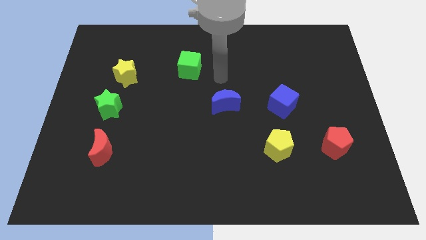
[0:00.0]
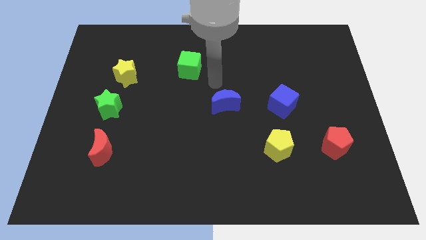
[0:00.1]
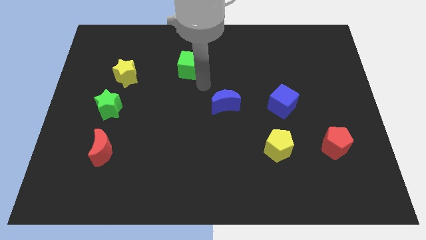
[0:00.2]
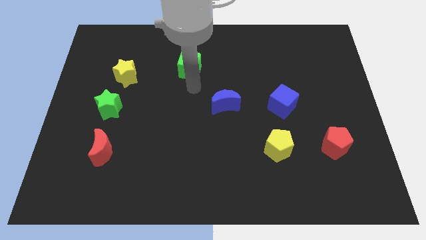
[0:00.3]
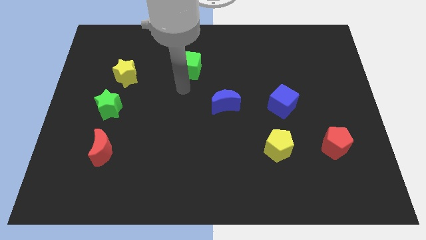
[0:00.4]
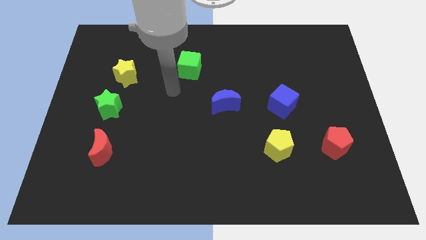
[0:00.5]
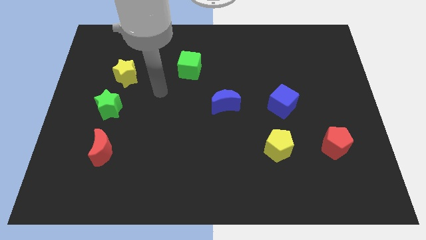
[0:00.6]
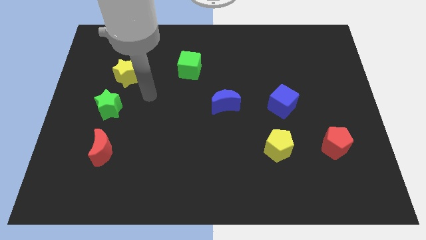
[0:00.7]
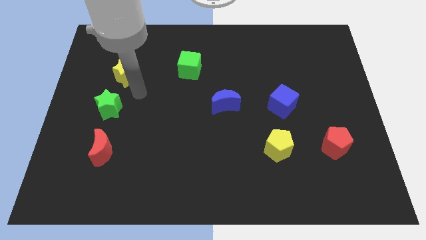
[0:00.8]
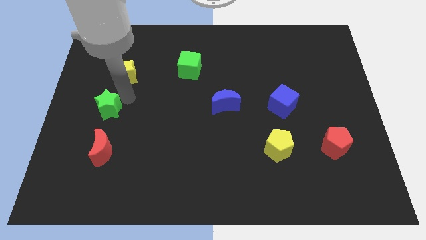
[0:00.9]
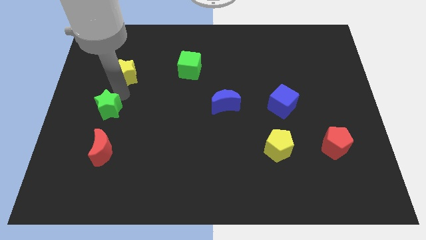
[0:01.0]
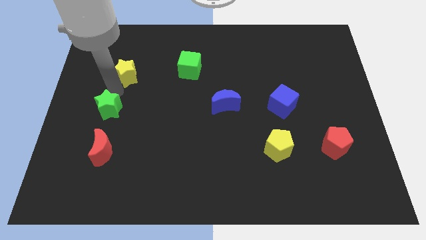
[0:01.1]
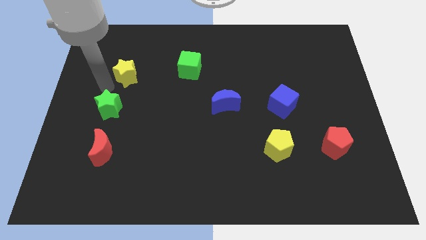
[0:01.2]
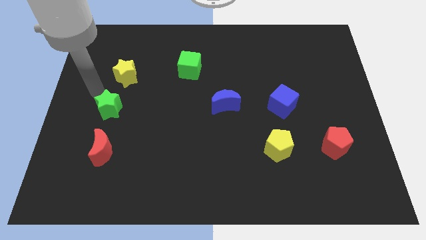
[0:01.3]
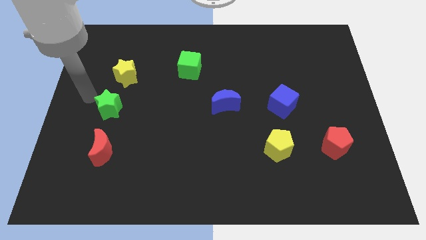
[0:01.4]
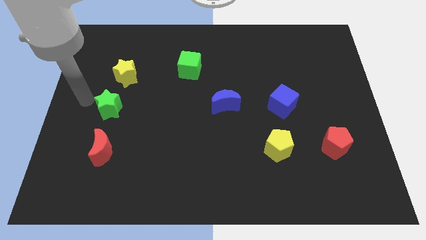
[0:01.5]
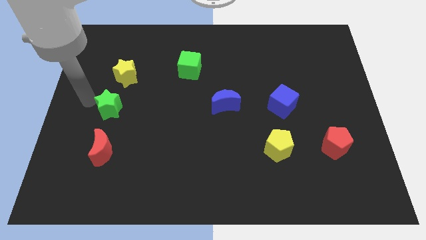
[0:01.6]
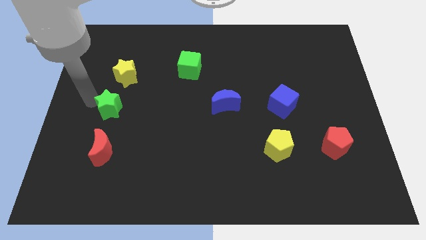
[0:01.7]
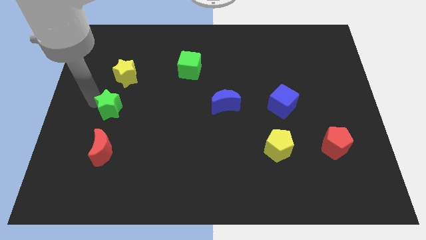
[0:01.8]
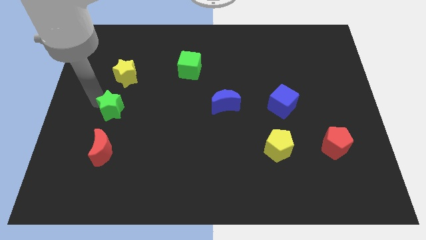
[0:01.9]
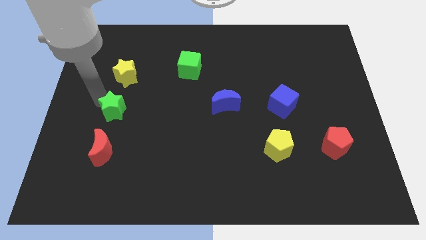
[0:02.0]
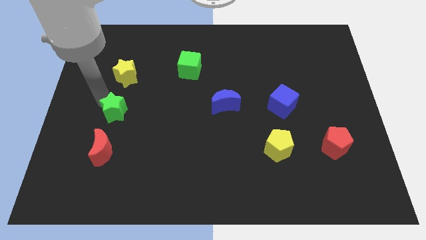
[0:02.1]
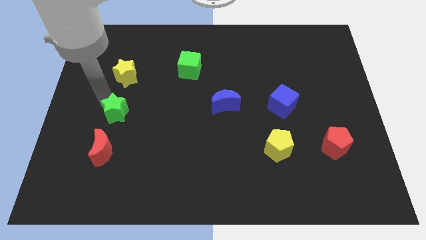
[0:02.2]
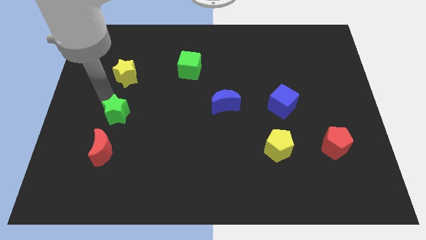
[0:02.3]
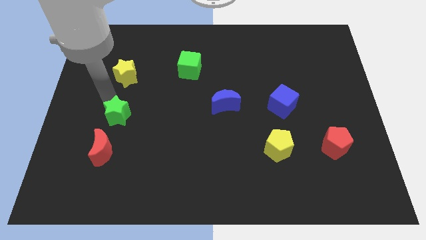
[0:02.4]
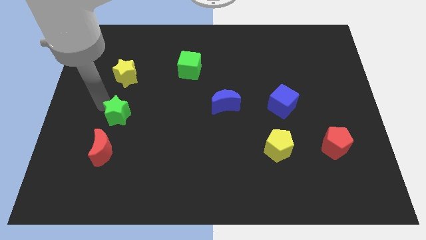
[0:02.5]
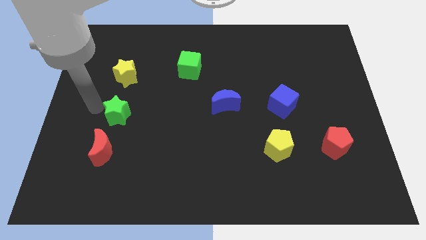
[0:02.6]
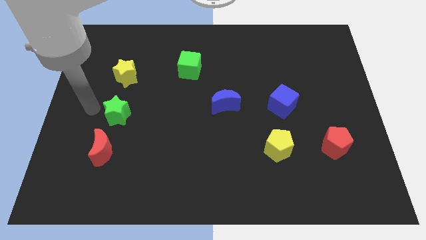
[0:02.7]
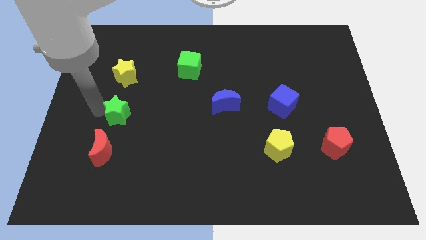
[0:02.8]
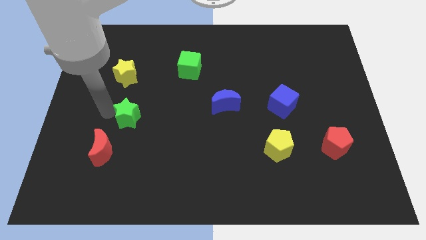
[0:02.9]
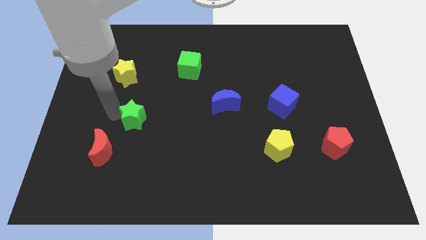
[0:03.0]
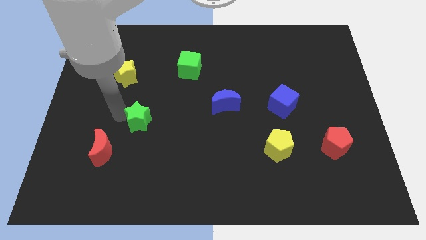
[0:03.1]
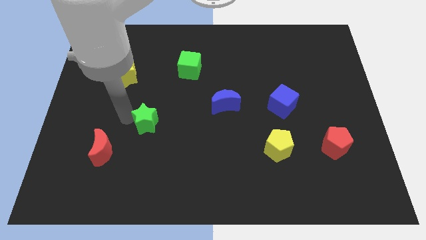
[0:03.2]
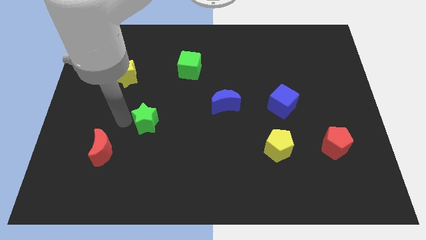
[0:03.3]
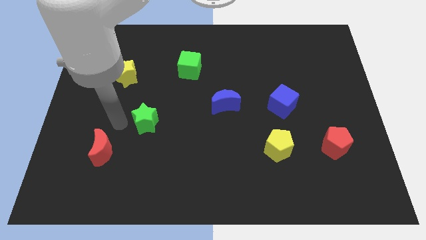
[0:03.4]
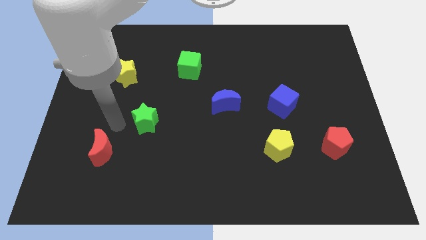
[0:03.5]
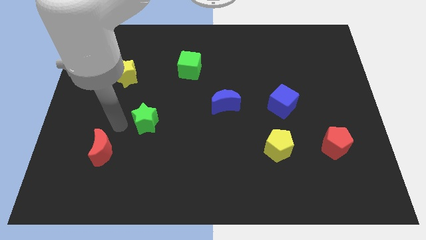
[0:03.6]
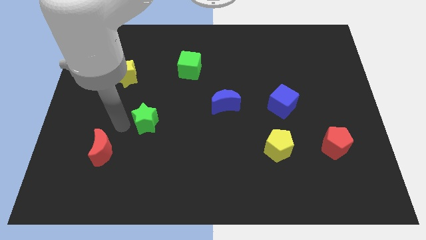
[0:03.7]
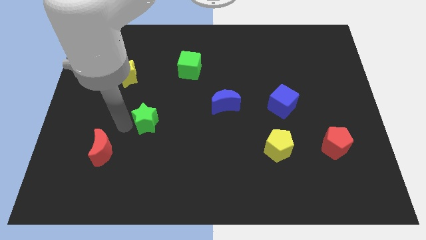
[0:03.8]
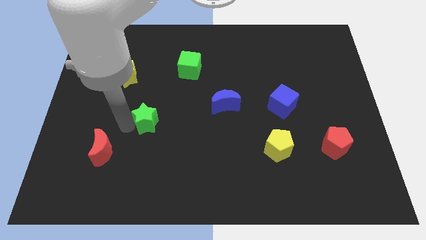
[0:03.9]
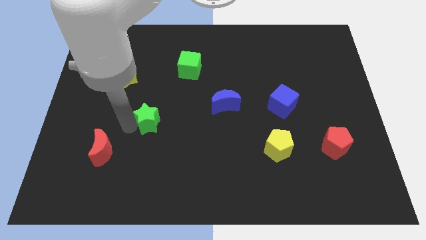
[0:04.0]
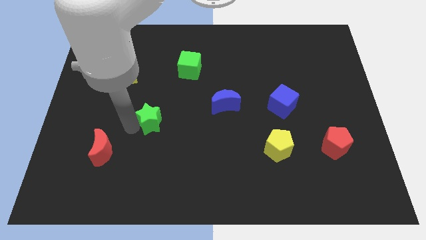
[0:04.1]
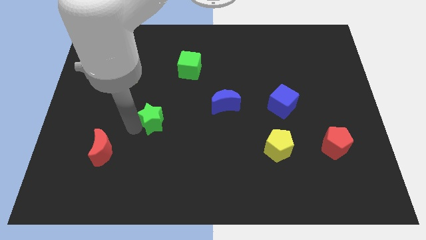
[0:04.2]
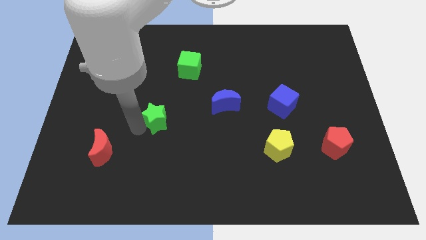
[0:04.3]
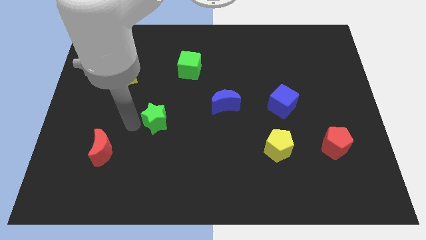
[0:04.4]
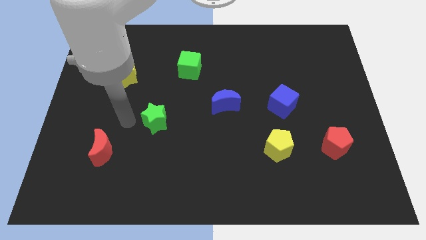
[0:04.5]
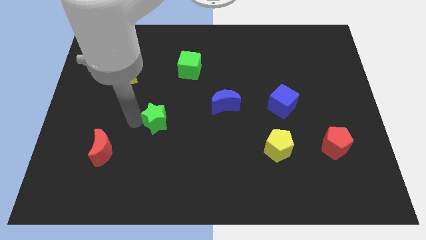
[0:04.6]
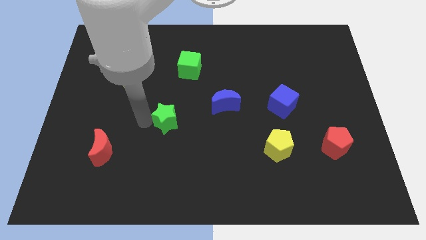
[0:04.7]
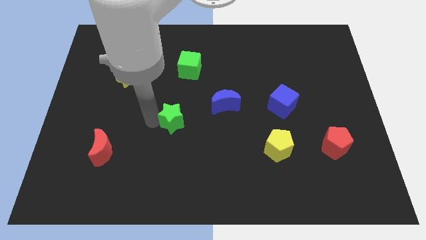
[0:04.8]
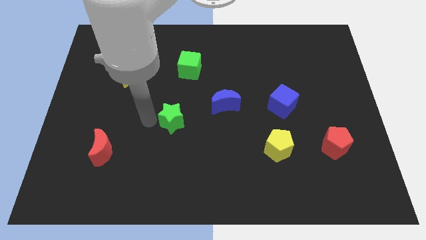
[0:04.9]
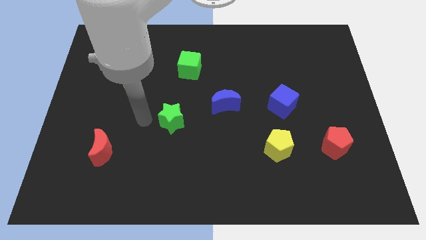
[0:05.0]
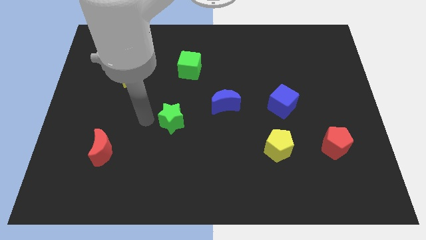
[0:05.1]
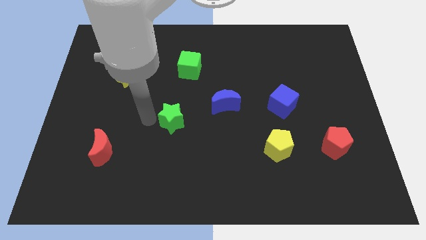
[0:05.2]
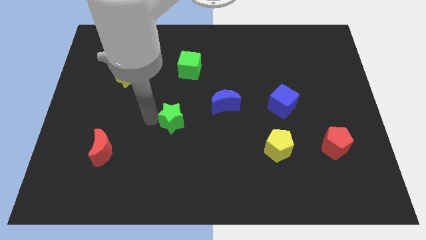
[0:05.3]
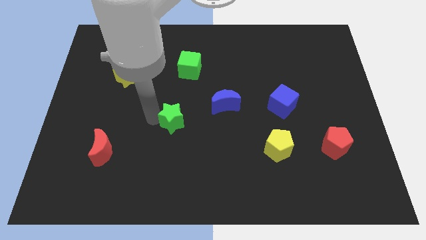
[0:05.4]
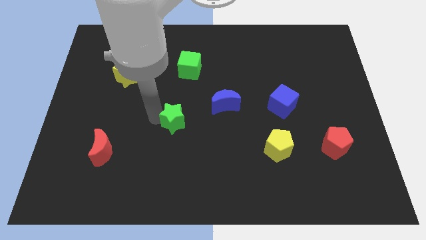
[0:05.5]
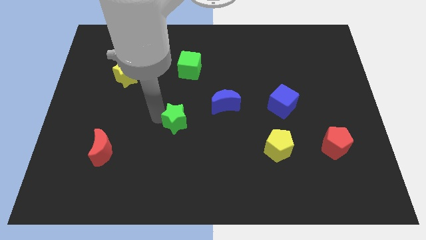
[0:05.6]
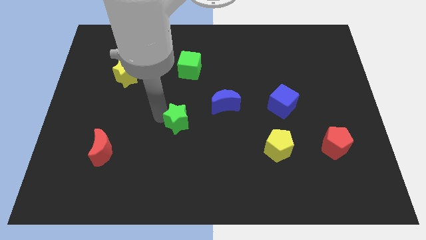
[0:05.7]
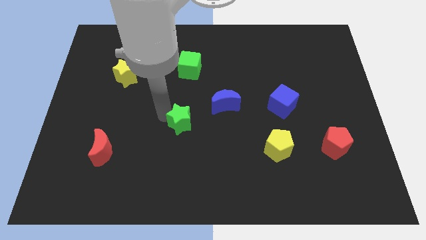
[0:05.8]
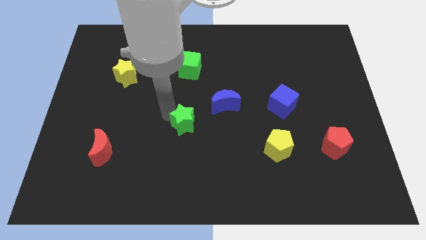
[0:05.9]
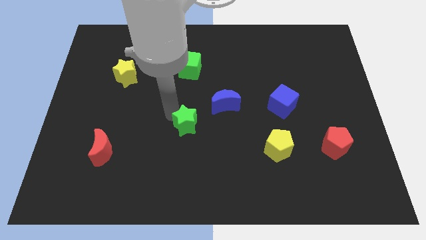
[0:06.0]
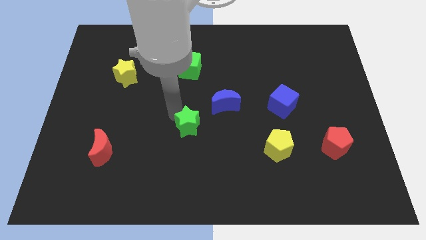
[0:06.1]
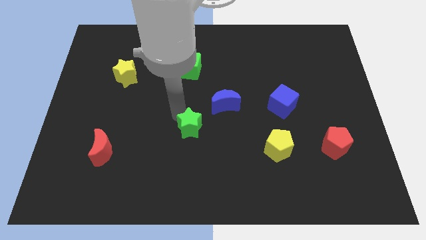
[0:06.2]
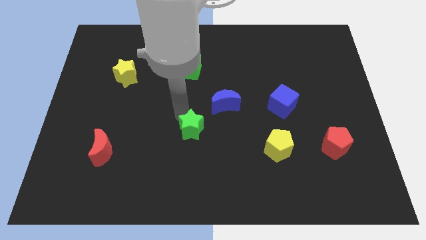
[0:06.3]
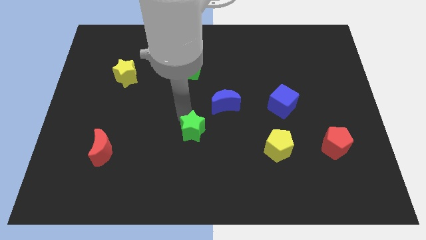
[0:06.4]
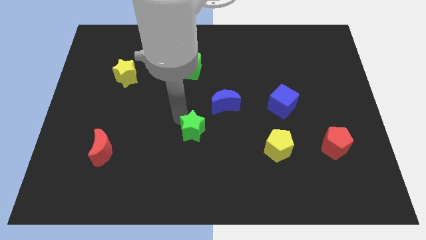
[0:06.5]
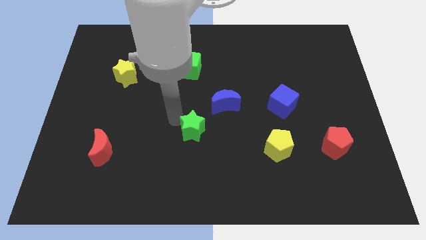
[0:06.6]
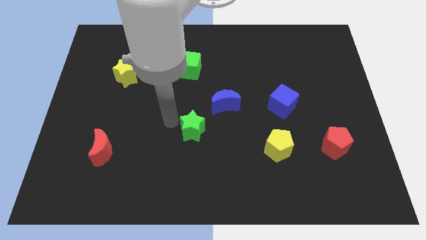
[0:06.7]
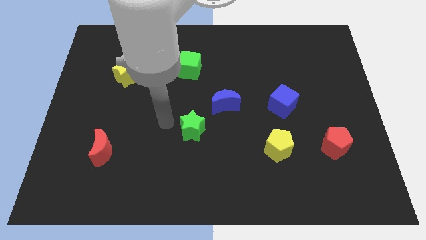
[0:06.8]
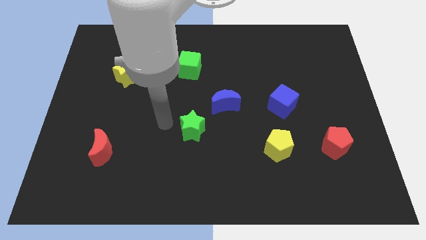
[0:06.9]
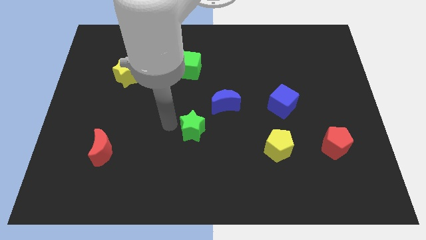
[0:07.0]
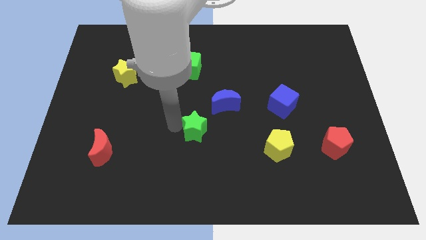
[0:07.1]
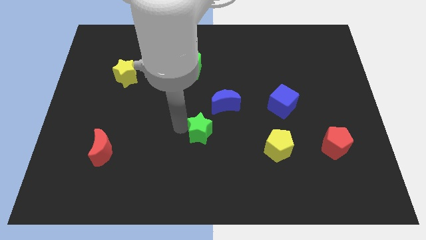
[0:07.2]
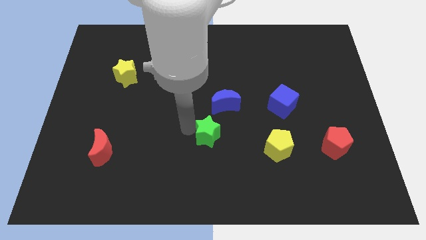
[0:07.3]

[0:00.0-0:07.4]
move the green star below the blue moon

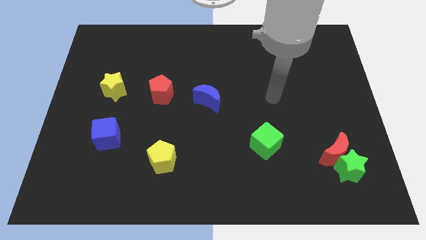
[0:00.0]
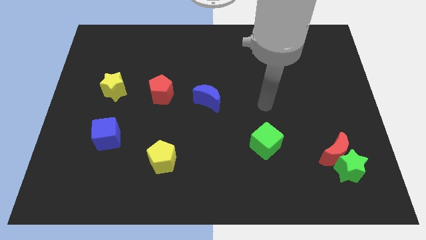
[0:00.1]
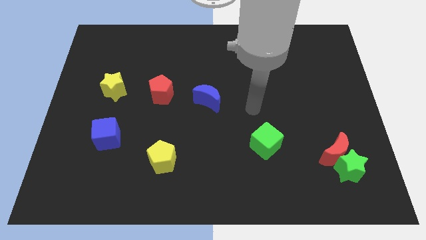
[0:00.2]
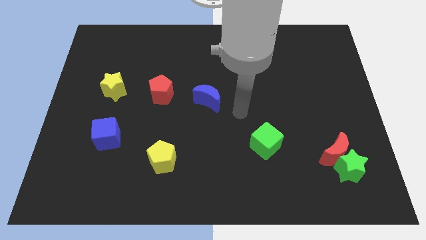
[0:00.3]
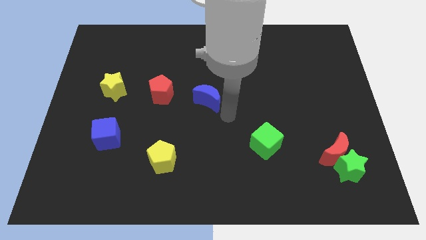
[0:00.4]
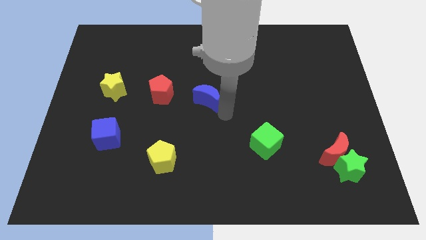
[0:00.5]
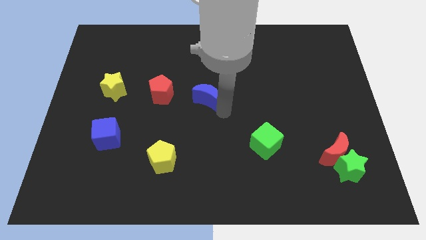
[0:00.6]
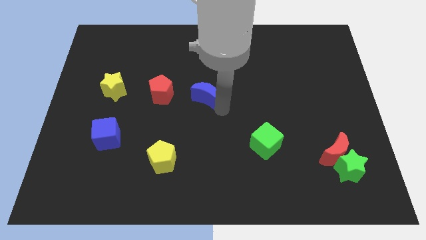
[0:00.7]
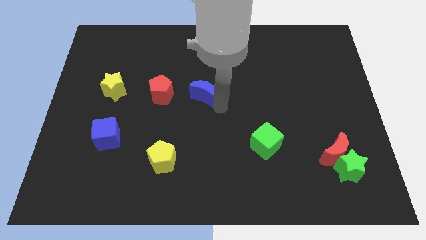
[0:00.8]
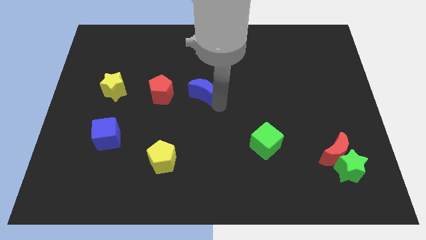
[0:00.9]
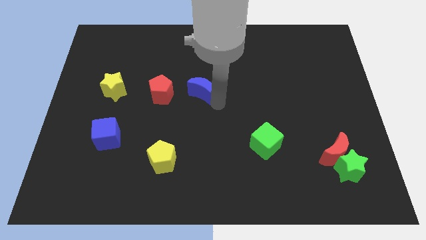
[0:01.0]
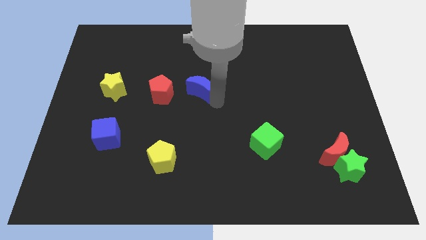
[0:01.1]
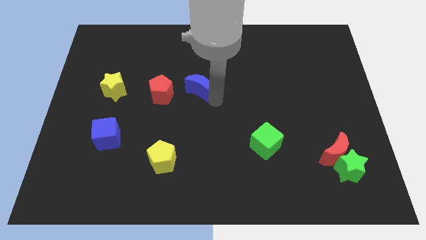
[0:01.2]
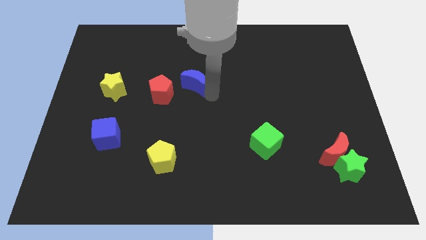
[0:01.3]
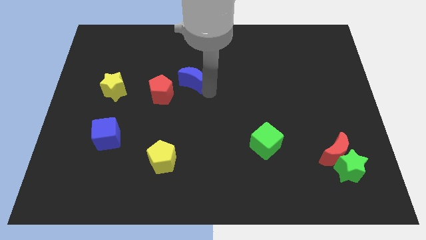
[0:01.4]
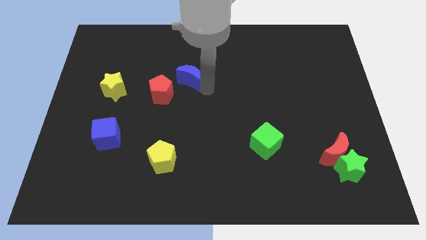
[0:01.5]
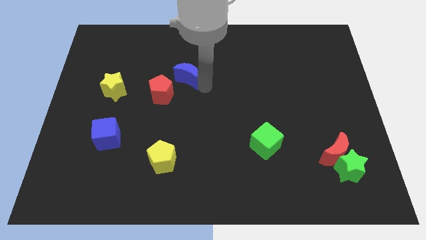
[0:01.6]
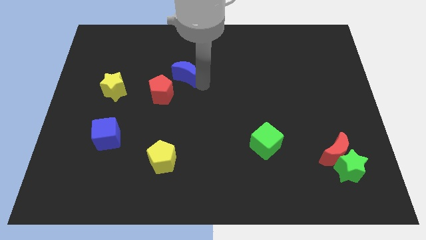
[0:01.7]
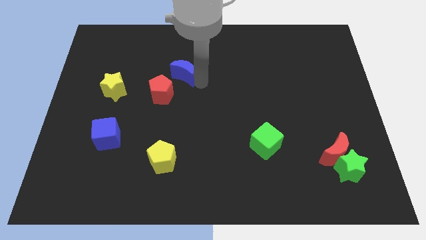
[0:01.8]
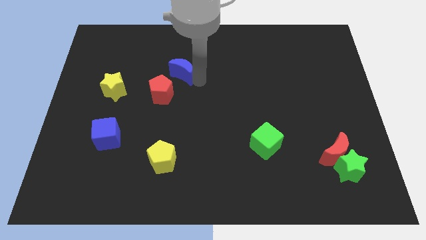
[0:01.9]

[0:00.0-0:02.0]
put the blue moon to the top of the red pentagon
